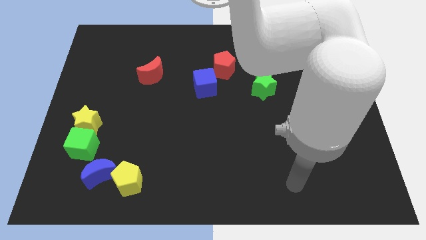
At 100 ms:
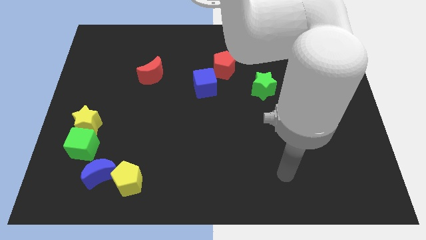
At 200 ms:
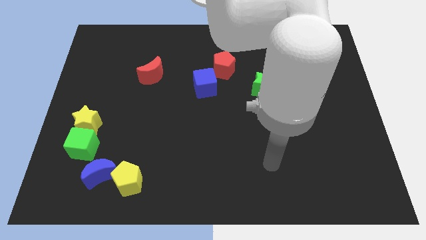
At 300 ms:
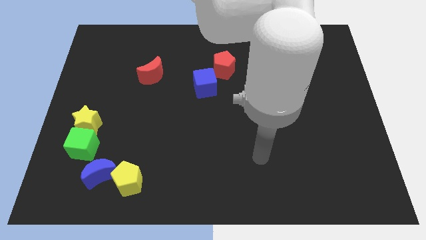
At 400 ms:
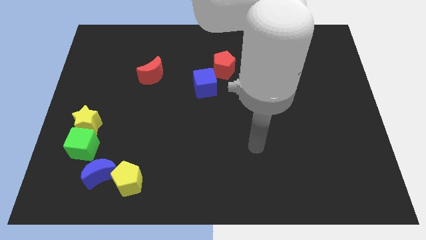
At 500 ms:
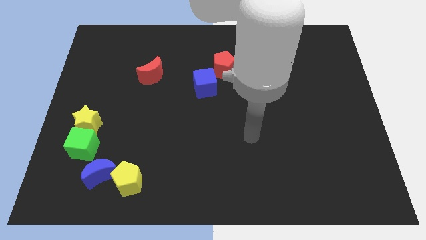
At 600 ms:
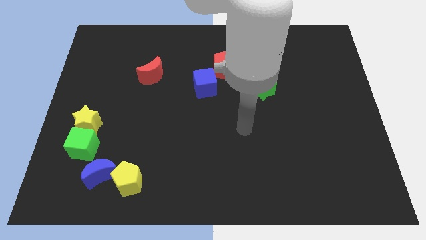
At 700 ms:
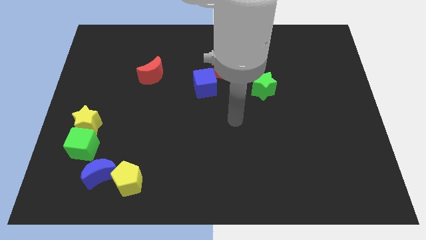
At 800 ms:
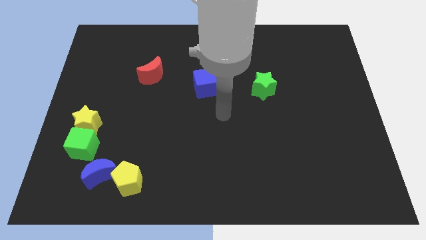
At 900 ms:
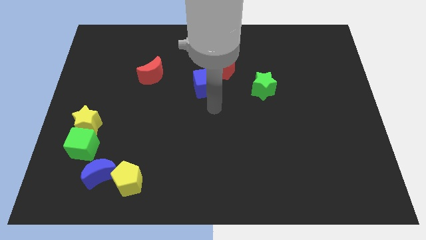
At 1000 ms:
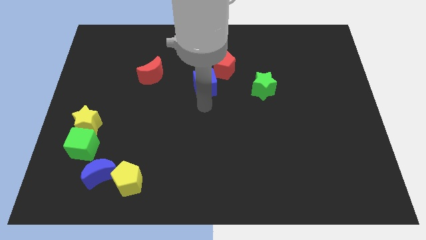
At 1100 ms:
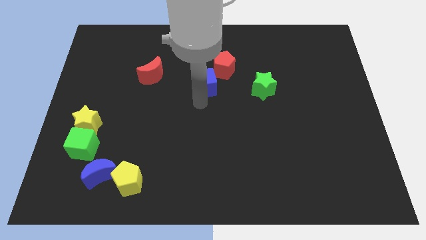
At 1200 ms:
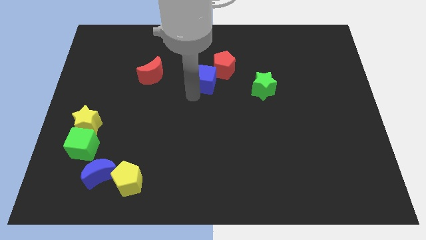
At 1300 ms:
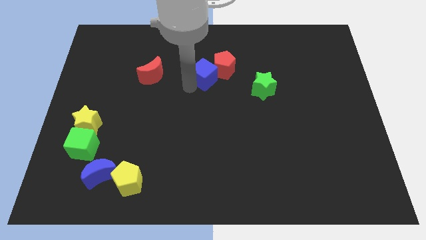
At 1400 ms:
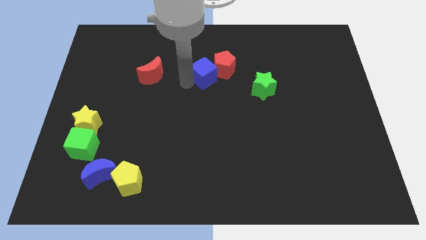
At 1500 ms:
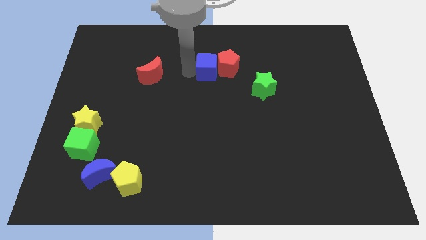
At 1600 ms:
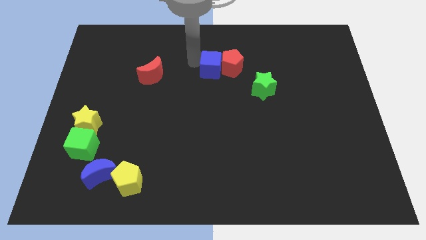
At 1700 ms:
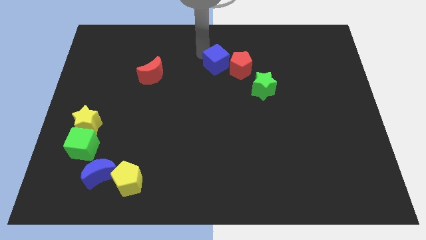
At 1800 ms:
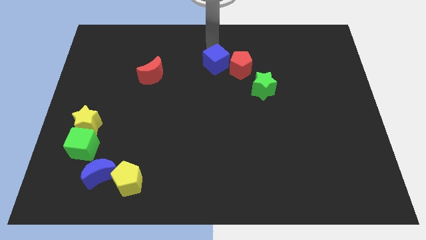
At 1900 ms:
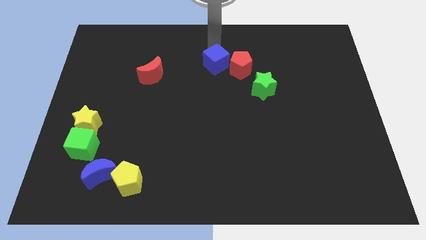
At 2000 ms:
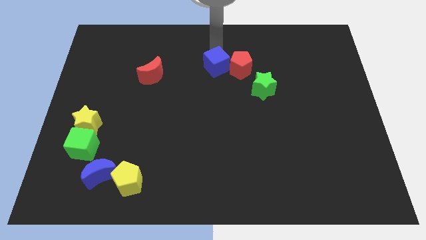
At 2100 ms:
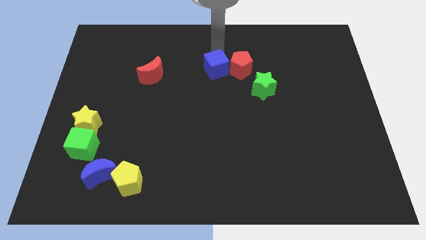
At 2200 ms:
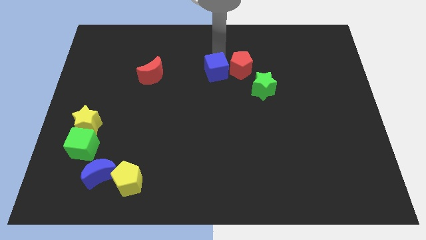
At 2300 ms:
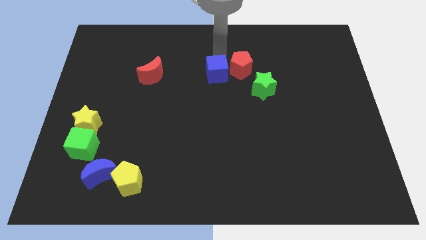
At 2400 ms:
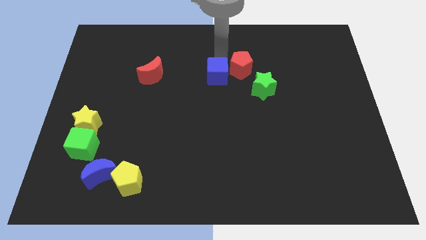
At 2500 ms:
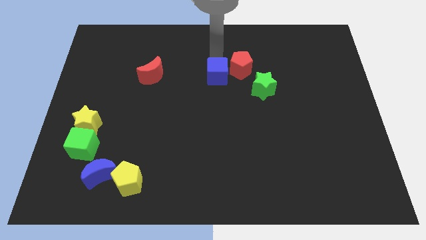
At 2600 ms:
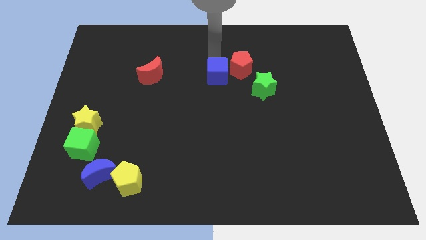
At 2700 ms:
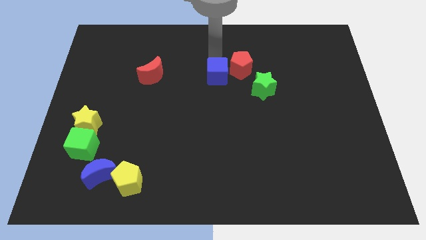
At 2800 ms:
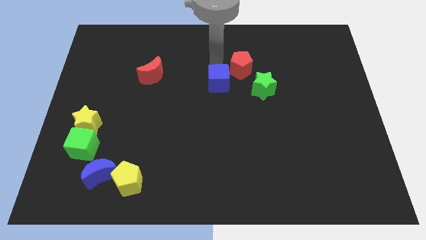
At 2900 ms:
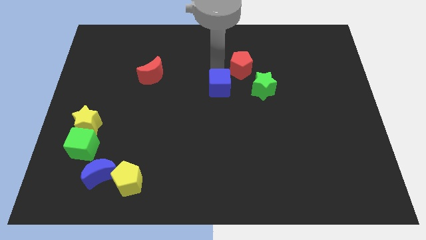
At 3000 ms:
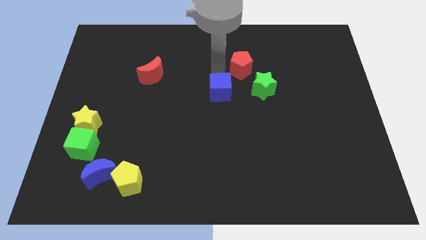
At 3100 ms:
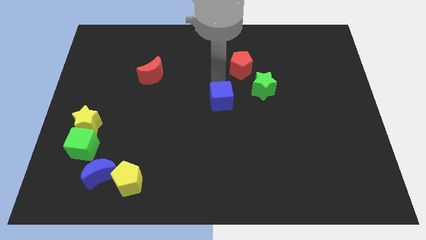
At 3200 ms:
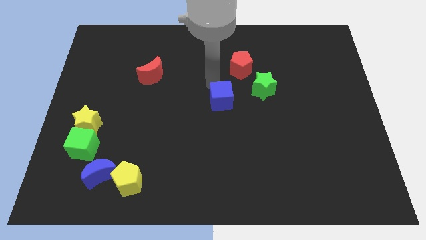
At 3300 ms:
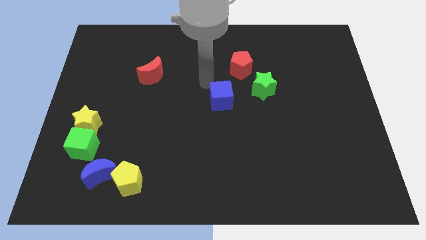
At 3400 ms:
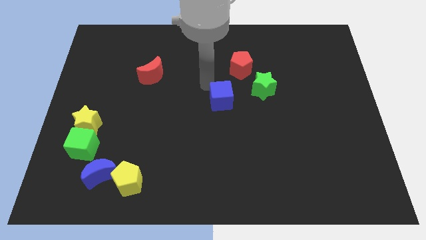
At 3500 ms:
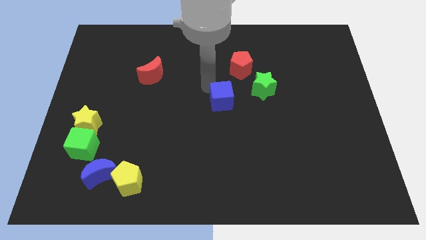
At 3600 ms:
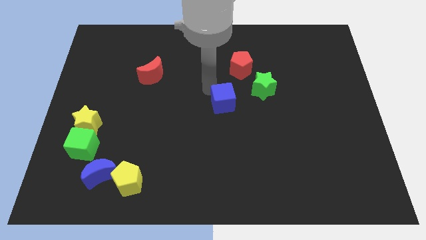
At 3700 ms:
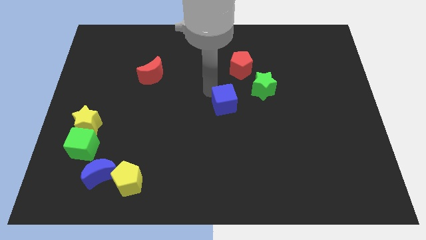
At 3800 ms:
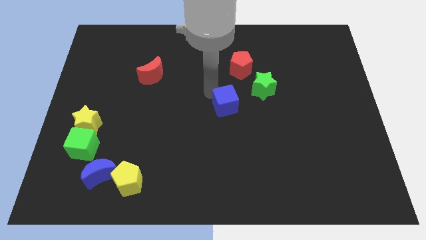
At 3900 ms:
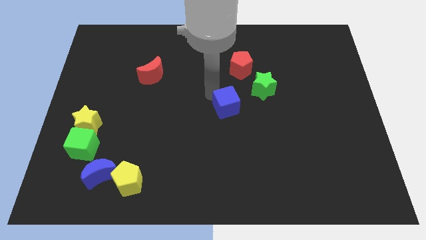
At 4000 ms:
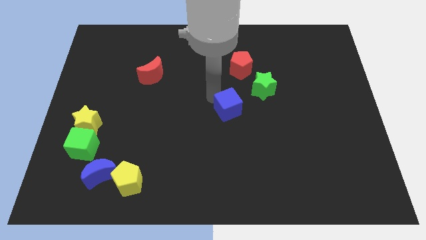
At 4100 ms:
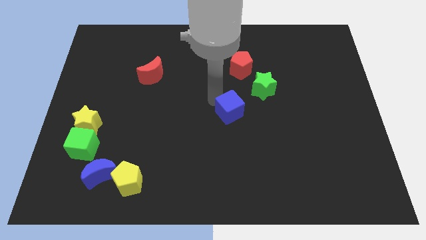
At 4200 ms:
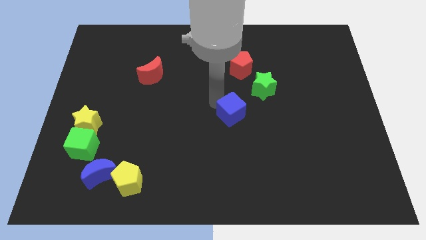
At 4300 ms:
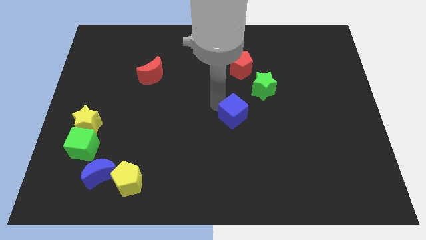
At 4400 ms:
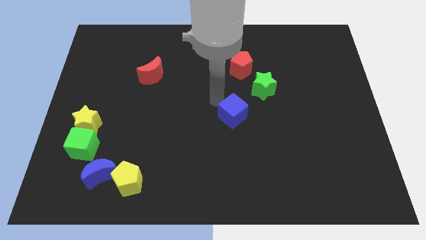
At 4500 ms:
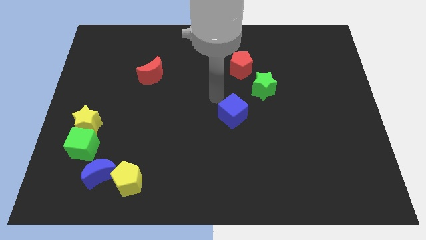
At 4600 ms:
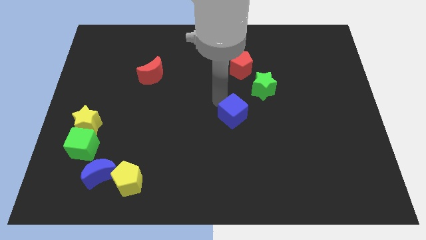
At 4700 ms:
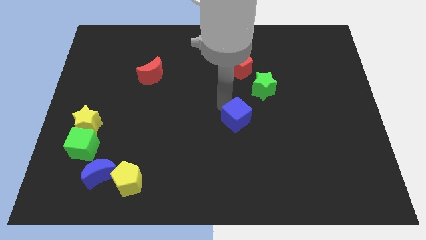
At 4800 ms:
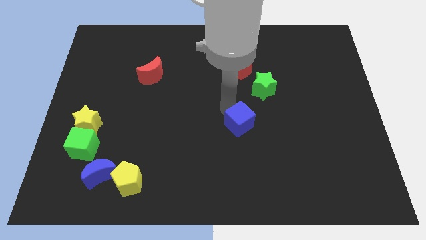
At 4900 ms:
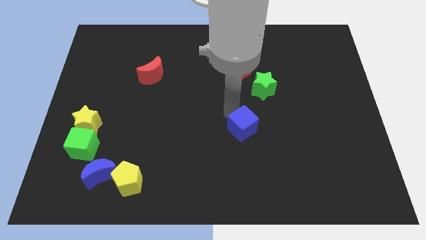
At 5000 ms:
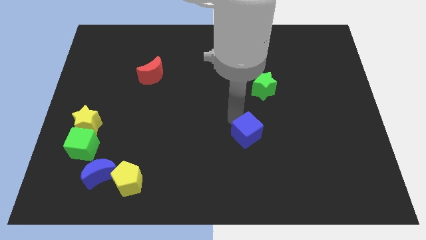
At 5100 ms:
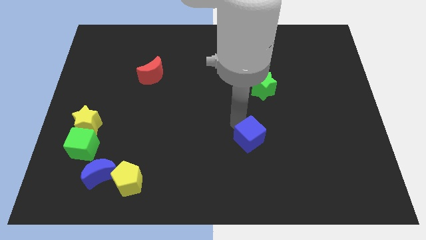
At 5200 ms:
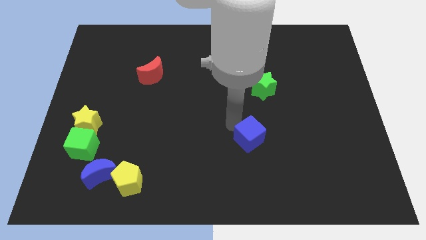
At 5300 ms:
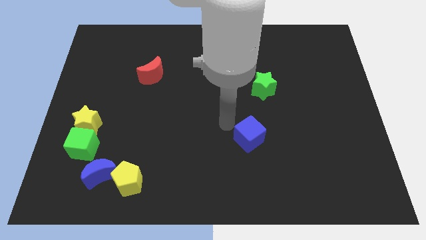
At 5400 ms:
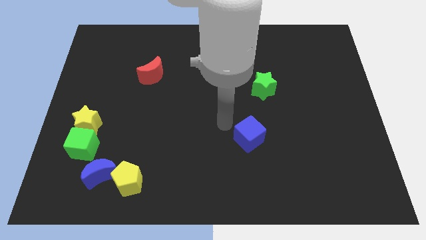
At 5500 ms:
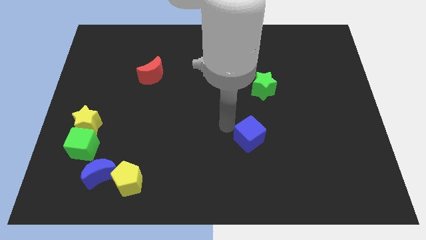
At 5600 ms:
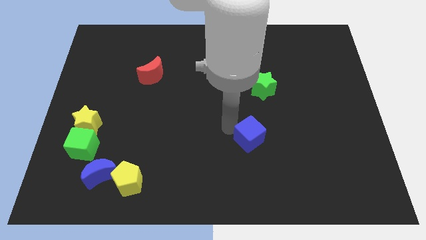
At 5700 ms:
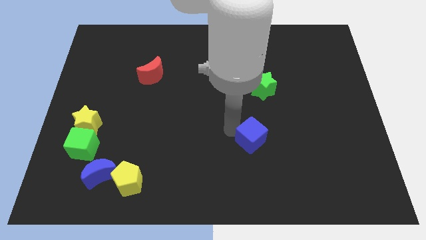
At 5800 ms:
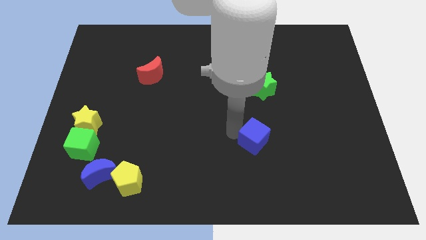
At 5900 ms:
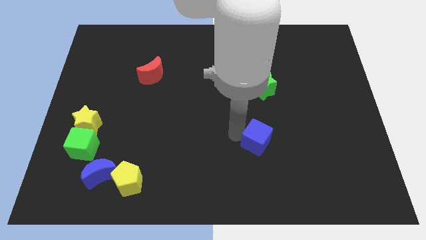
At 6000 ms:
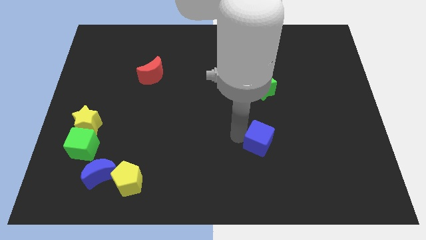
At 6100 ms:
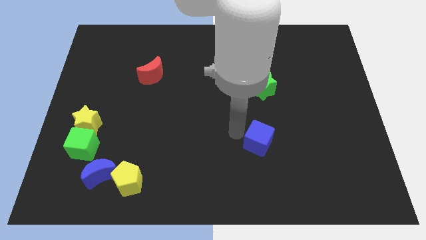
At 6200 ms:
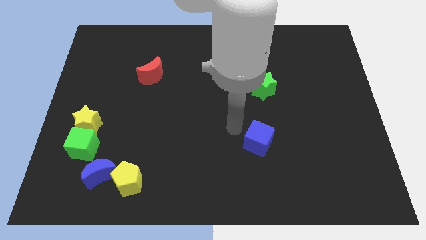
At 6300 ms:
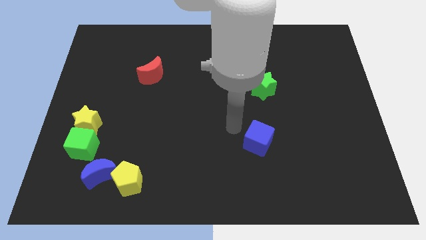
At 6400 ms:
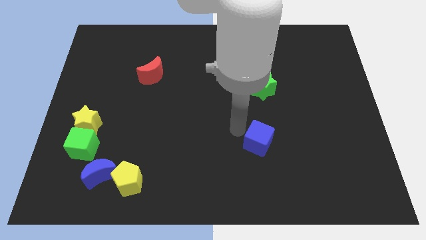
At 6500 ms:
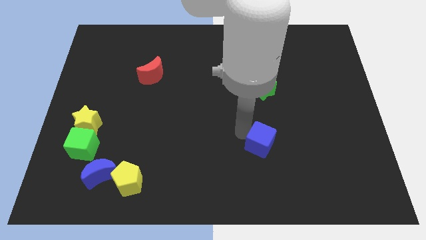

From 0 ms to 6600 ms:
move the blue cube down and right diagonally

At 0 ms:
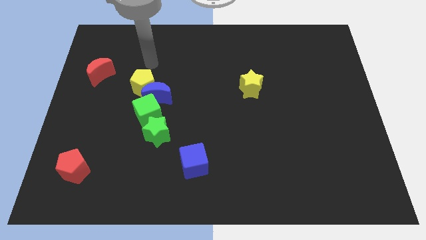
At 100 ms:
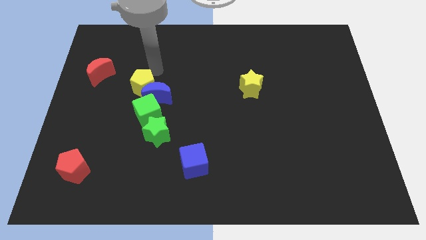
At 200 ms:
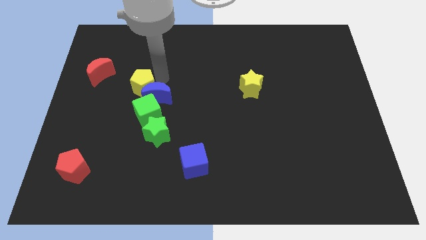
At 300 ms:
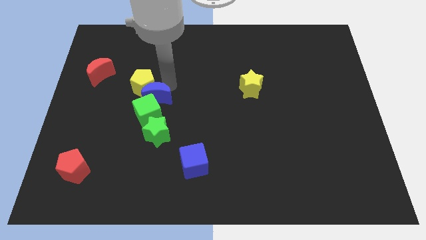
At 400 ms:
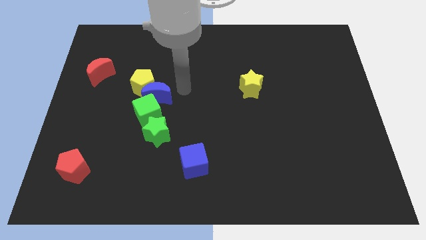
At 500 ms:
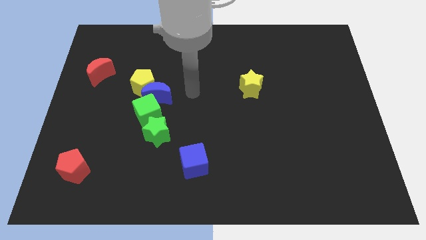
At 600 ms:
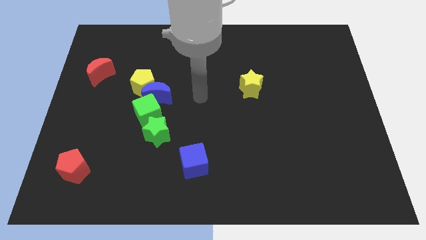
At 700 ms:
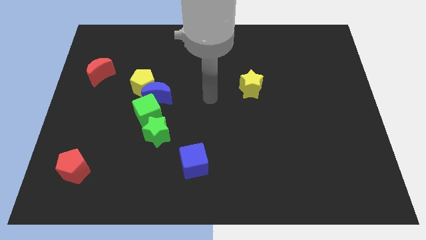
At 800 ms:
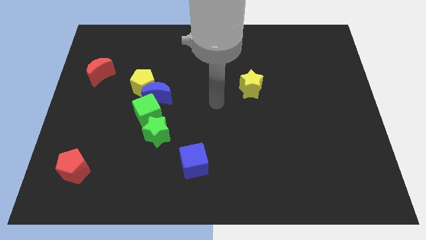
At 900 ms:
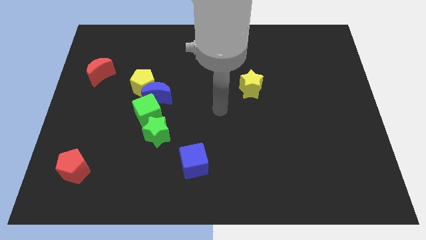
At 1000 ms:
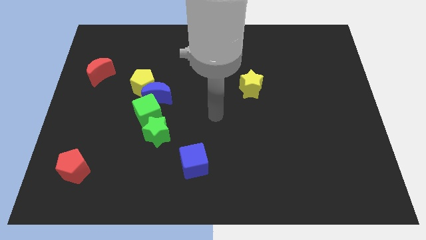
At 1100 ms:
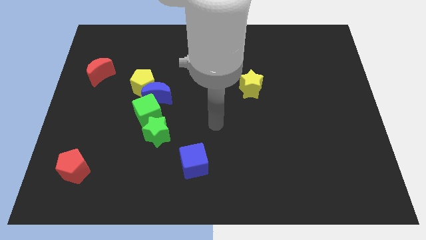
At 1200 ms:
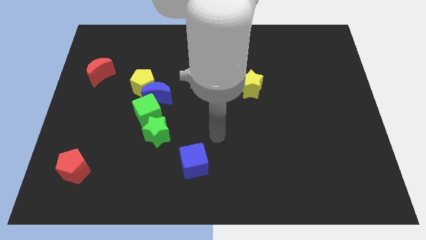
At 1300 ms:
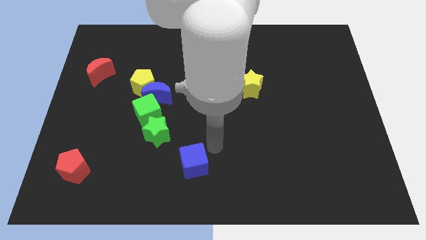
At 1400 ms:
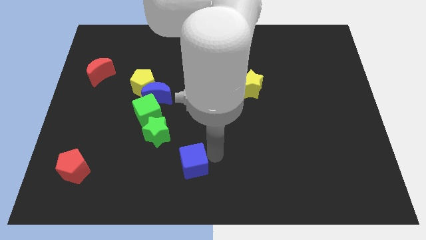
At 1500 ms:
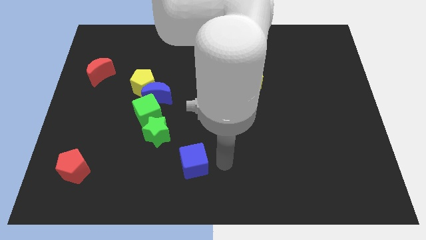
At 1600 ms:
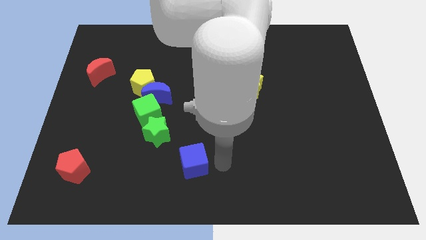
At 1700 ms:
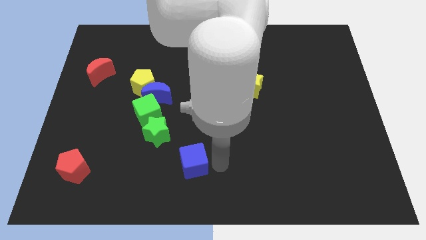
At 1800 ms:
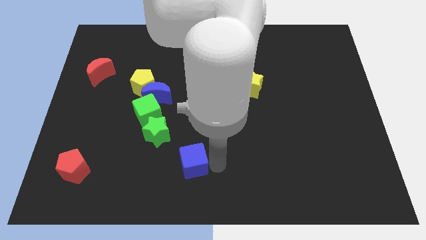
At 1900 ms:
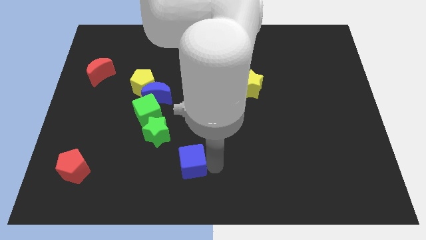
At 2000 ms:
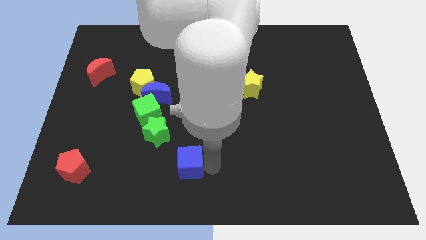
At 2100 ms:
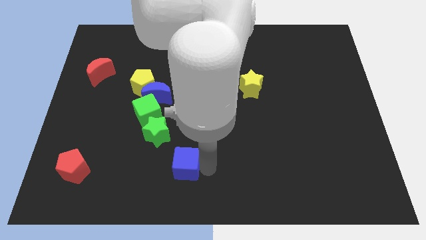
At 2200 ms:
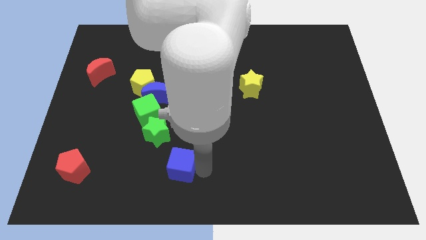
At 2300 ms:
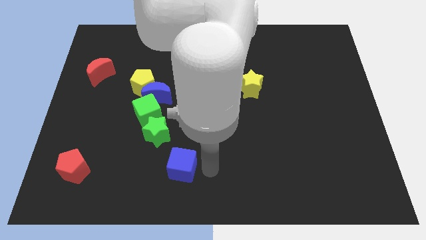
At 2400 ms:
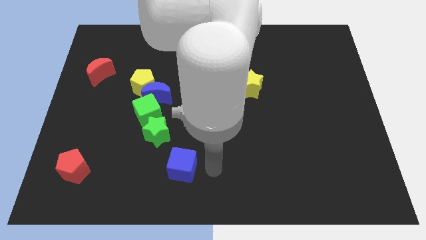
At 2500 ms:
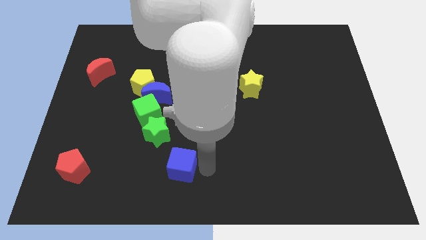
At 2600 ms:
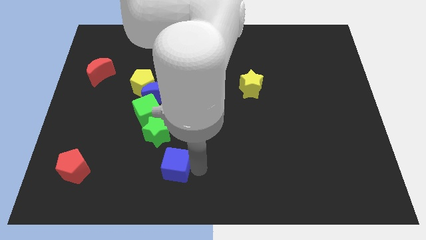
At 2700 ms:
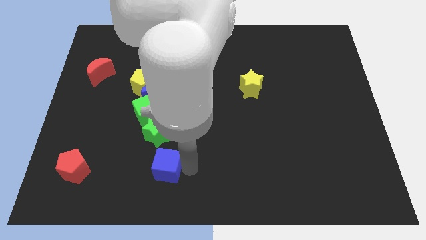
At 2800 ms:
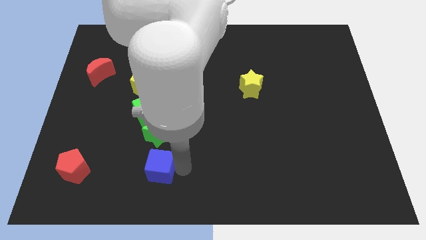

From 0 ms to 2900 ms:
slide the blue cube a bit left
